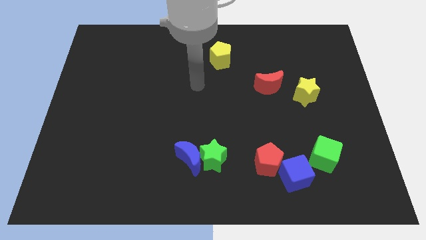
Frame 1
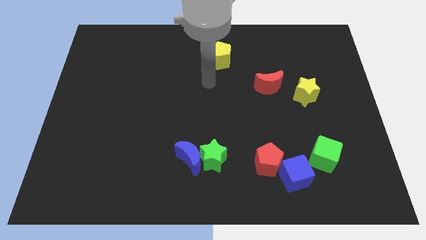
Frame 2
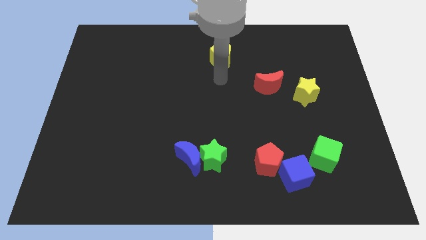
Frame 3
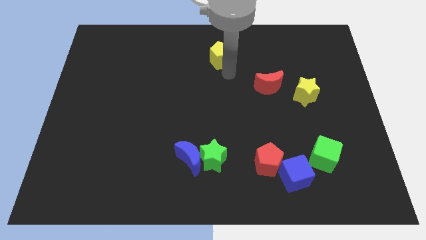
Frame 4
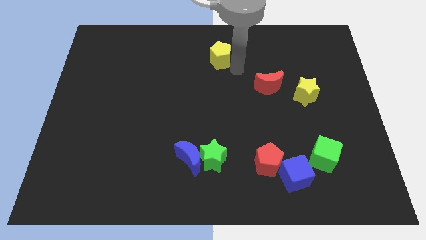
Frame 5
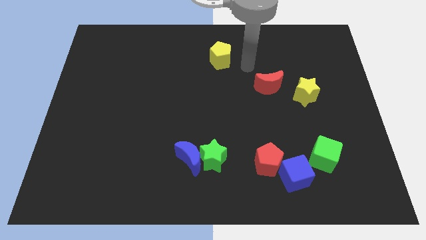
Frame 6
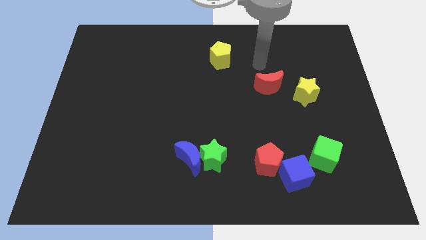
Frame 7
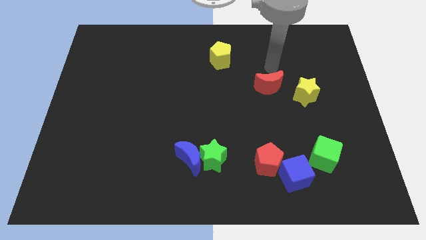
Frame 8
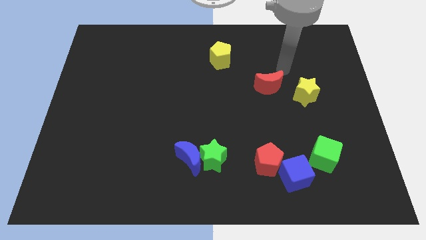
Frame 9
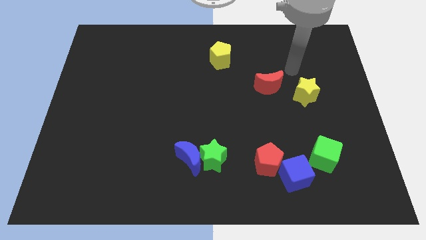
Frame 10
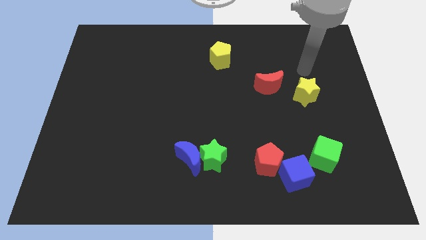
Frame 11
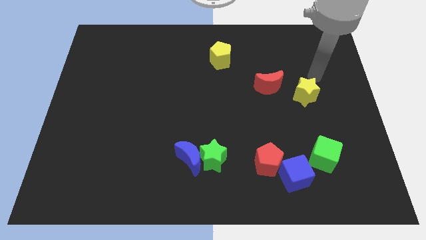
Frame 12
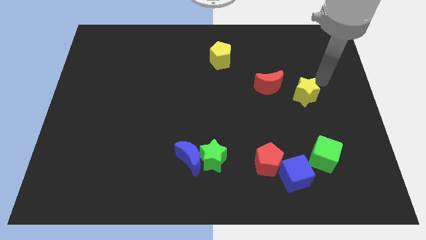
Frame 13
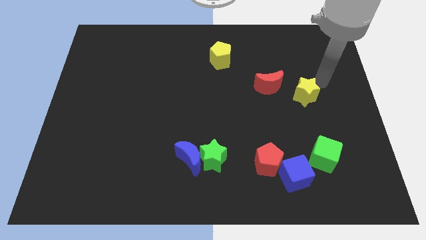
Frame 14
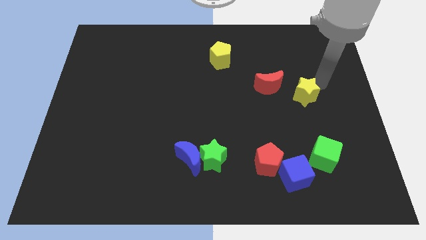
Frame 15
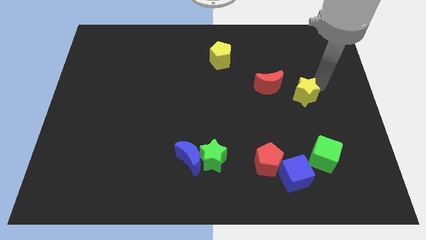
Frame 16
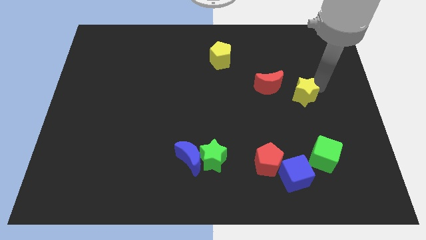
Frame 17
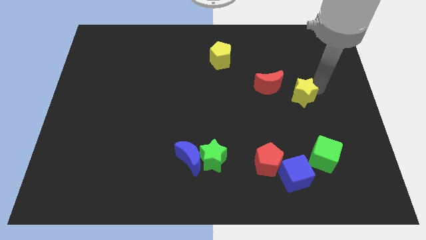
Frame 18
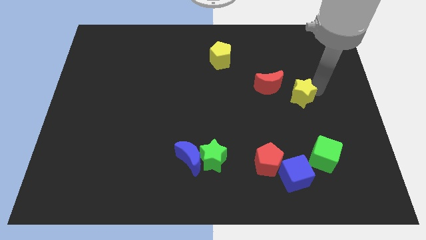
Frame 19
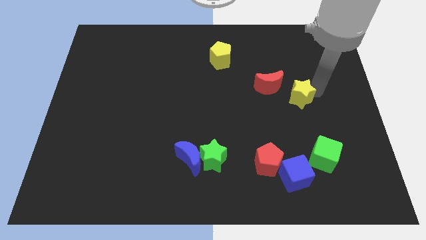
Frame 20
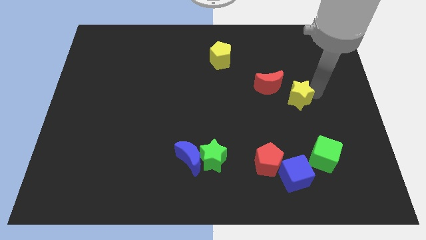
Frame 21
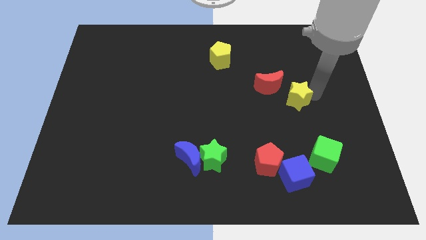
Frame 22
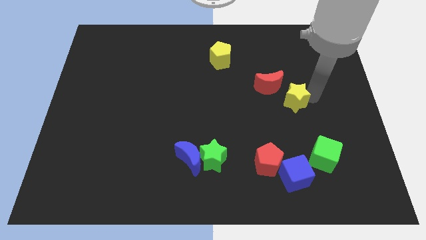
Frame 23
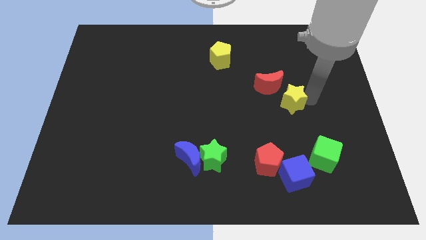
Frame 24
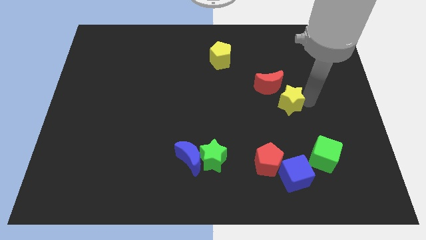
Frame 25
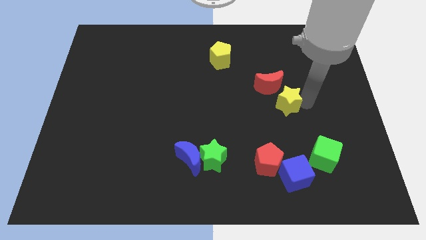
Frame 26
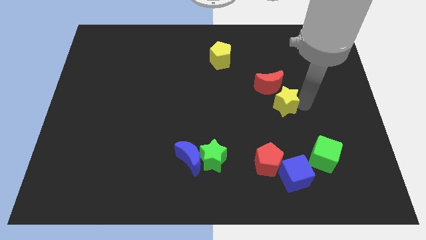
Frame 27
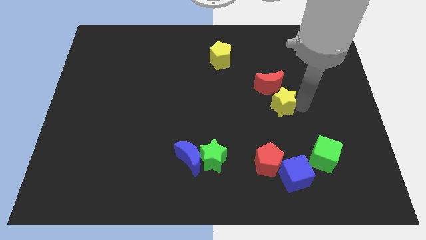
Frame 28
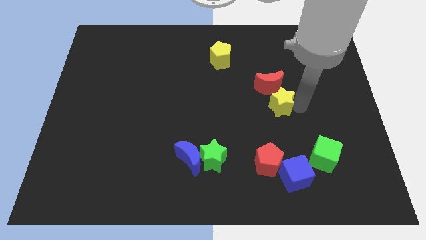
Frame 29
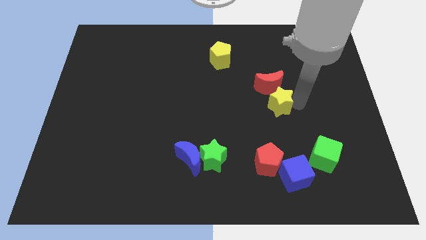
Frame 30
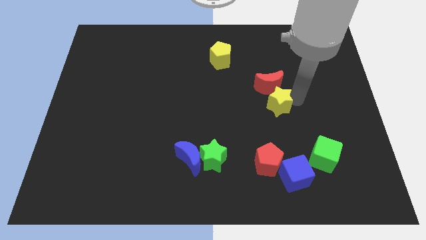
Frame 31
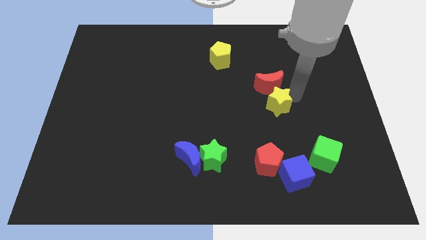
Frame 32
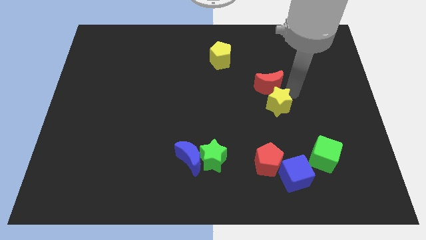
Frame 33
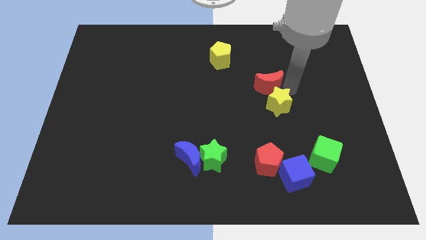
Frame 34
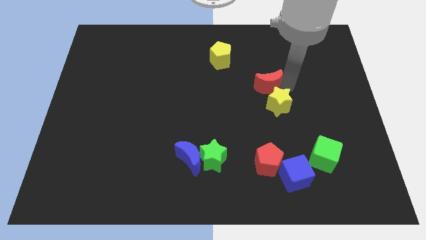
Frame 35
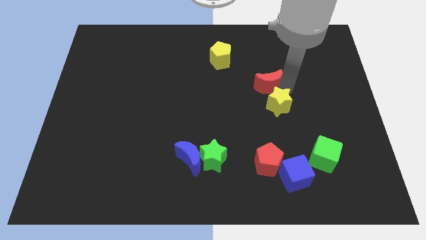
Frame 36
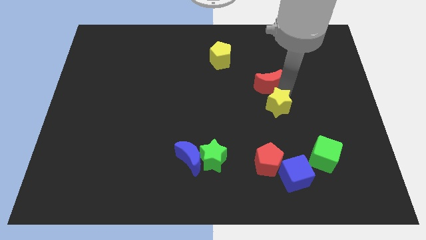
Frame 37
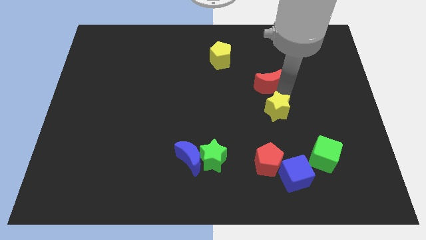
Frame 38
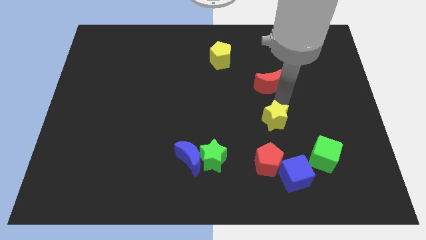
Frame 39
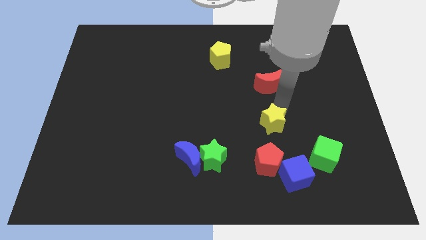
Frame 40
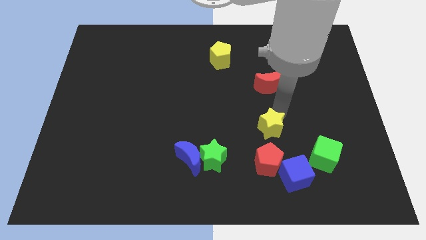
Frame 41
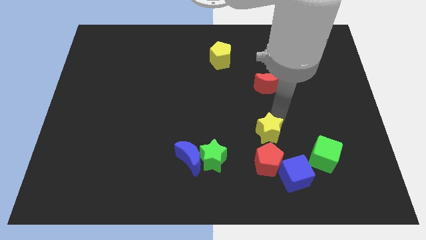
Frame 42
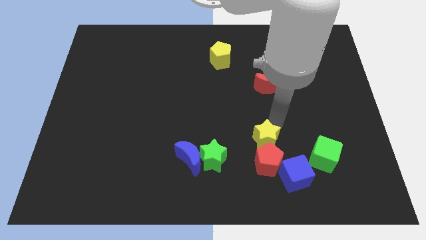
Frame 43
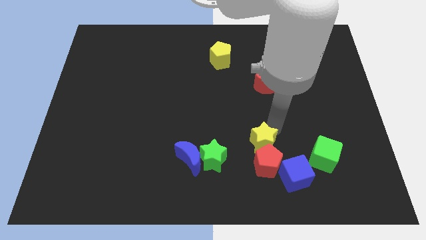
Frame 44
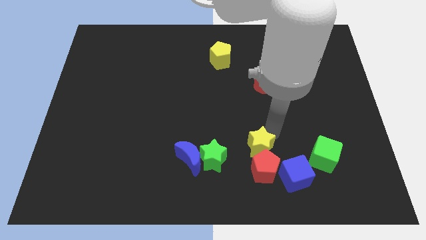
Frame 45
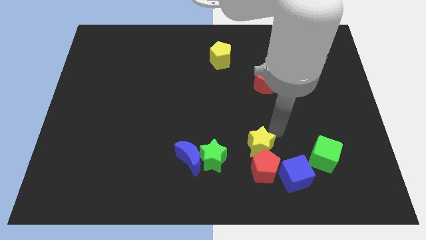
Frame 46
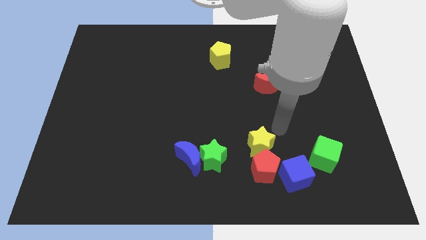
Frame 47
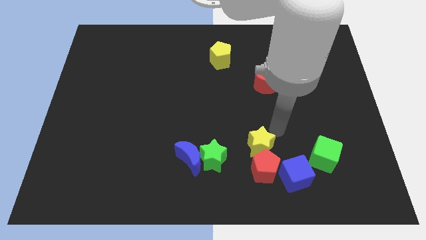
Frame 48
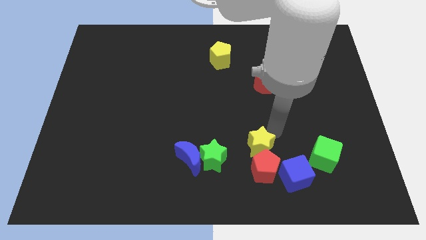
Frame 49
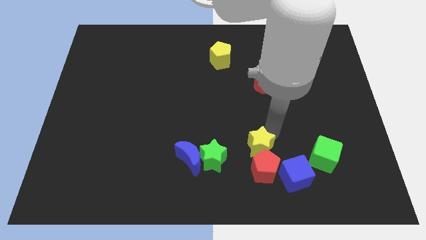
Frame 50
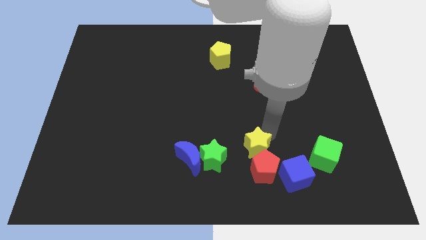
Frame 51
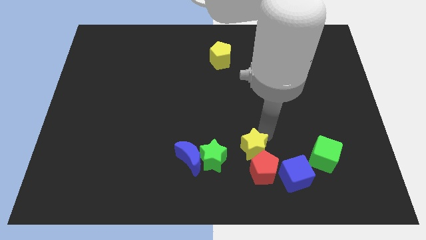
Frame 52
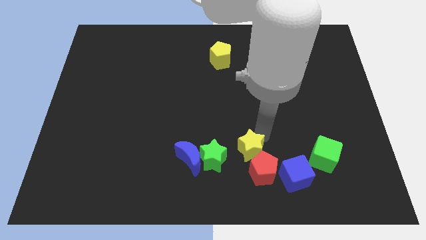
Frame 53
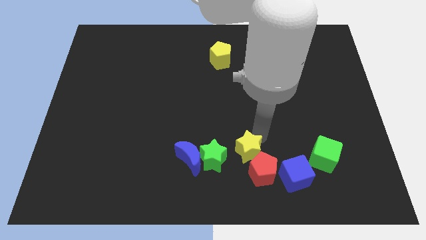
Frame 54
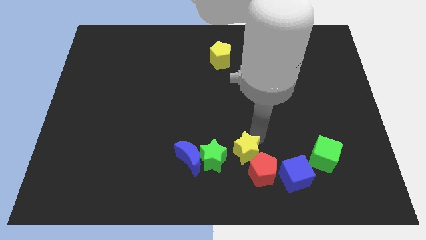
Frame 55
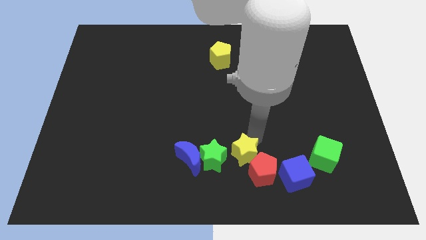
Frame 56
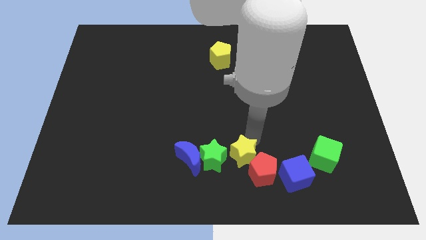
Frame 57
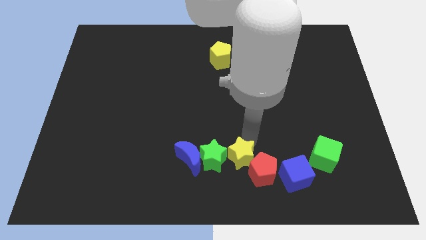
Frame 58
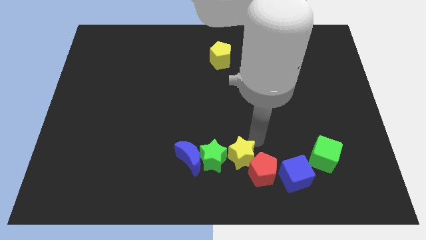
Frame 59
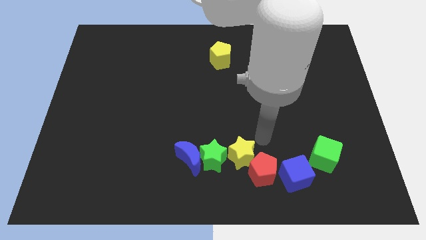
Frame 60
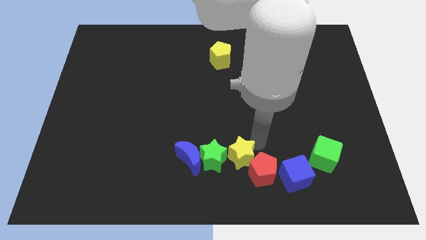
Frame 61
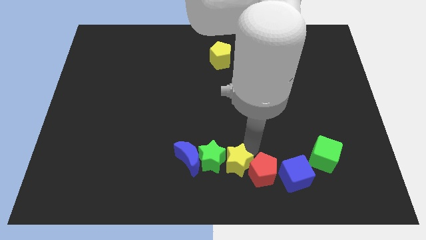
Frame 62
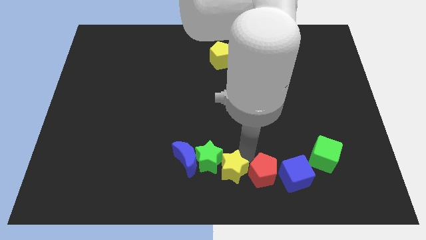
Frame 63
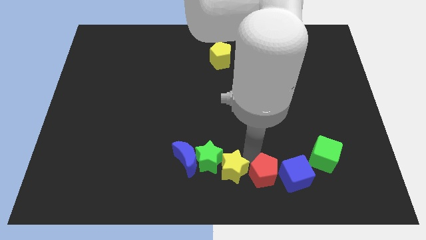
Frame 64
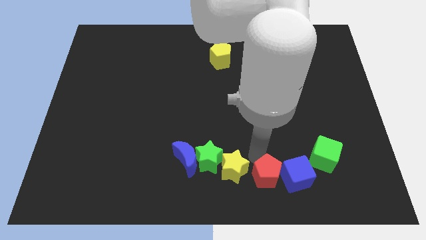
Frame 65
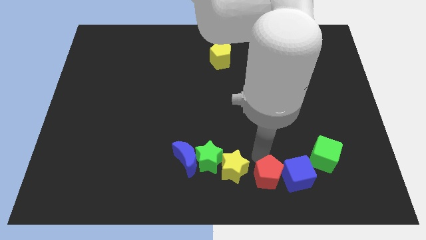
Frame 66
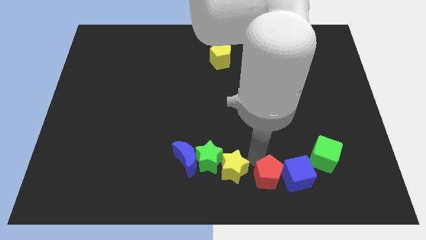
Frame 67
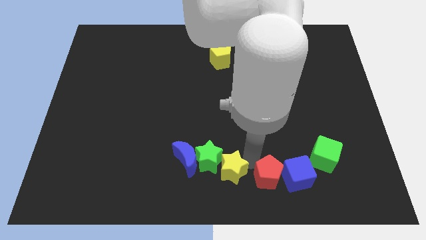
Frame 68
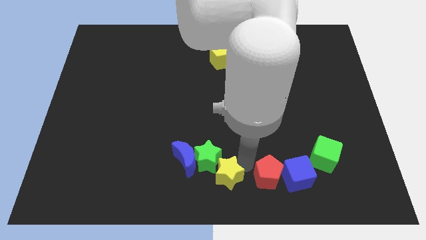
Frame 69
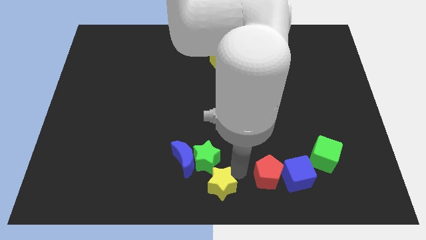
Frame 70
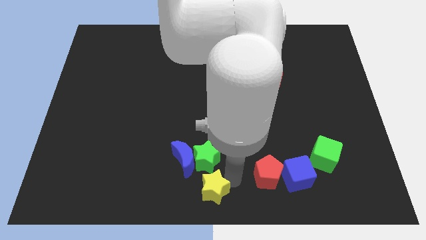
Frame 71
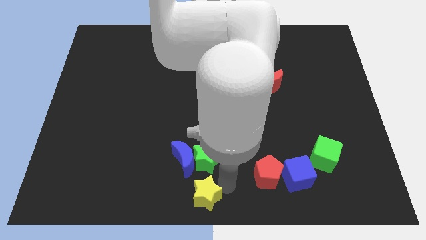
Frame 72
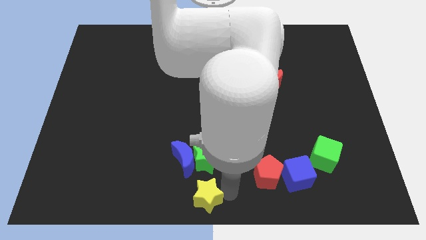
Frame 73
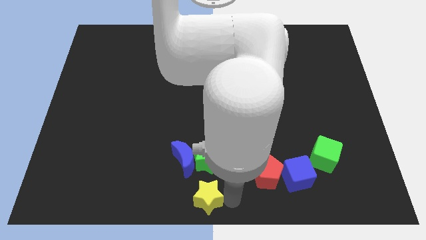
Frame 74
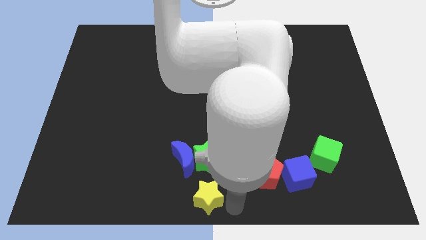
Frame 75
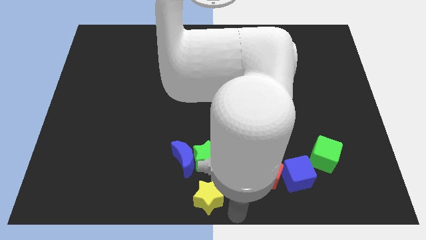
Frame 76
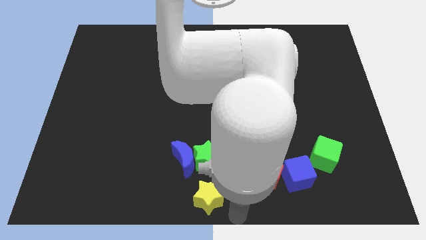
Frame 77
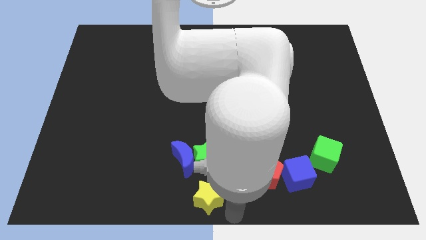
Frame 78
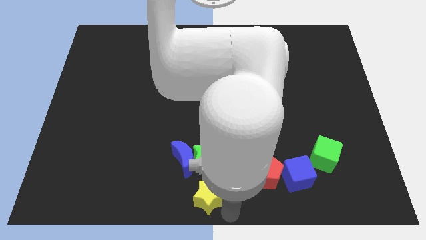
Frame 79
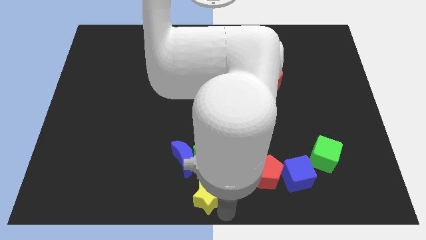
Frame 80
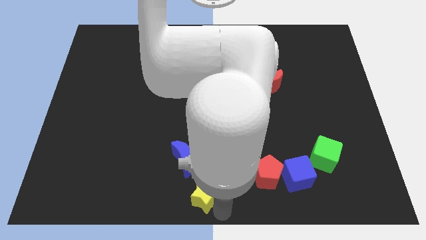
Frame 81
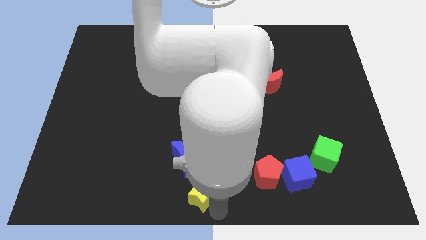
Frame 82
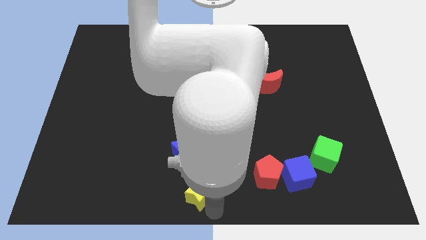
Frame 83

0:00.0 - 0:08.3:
slide the yellow star to the bottom left side of the green star
